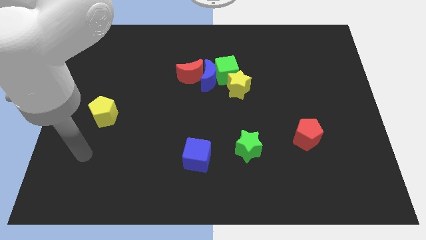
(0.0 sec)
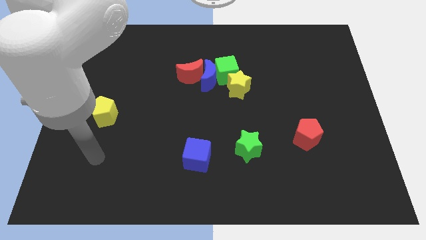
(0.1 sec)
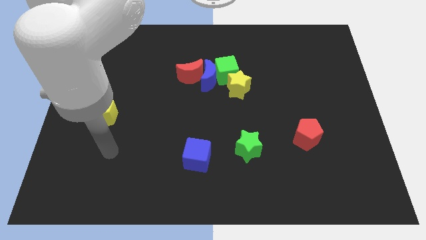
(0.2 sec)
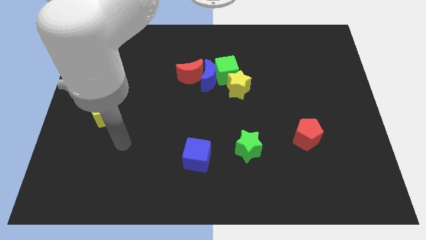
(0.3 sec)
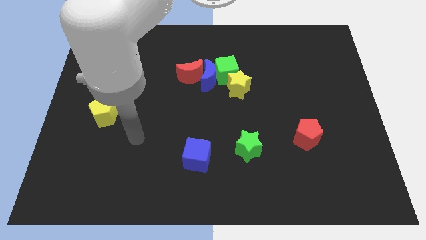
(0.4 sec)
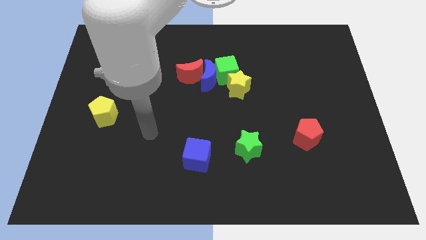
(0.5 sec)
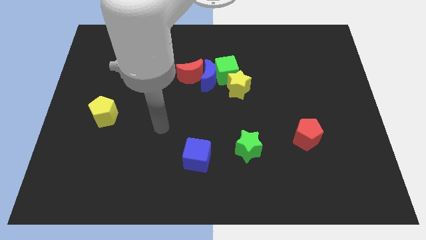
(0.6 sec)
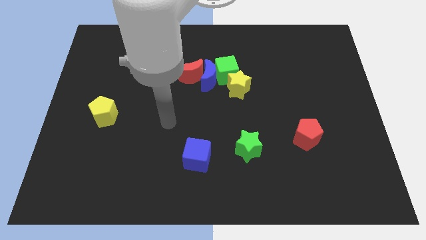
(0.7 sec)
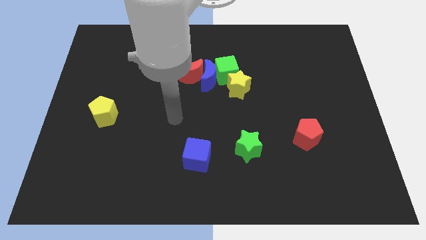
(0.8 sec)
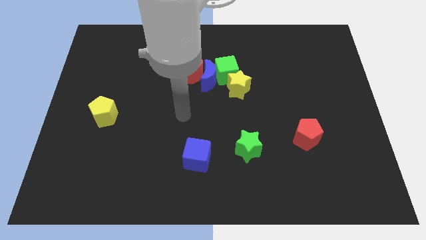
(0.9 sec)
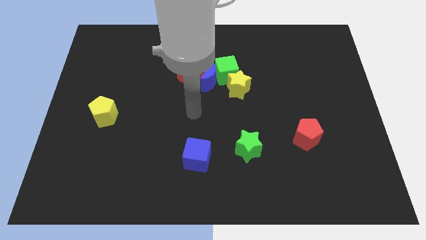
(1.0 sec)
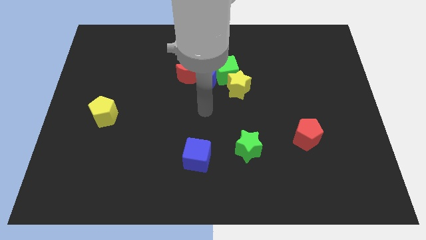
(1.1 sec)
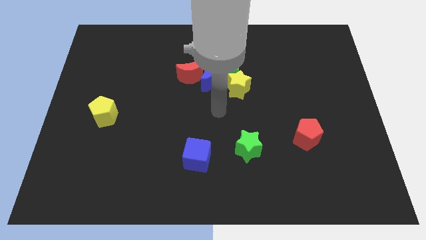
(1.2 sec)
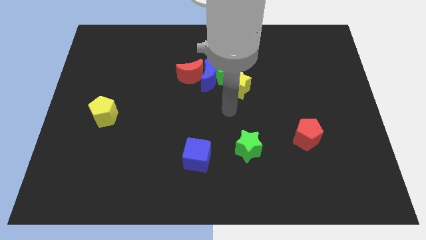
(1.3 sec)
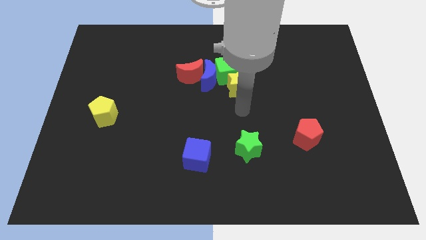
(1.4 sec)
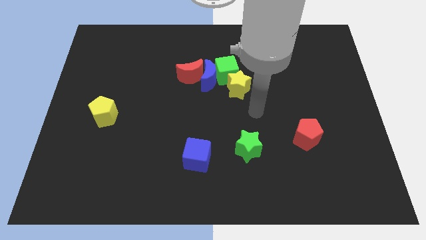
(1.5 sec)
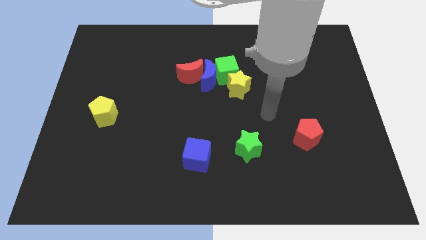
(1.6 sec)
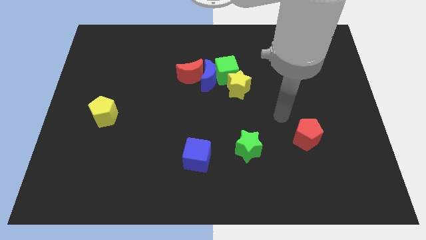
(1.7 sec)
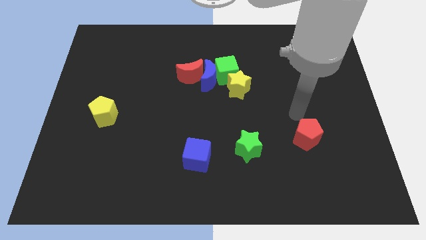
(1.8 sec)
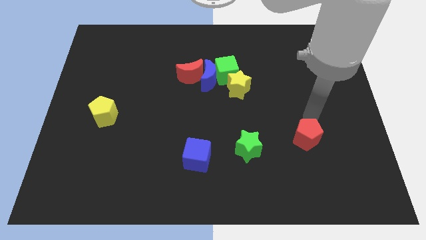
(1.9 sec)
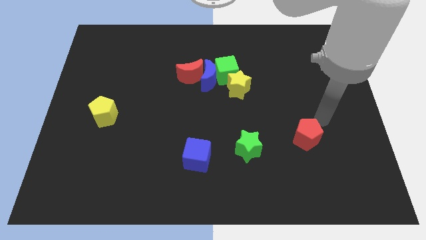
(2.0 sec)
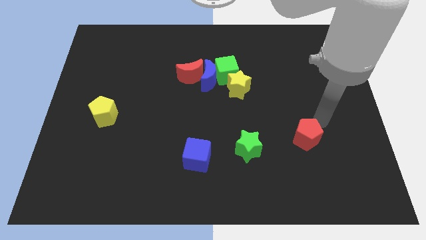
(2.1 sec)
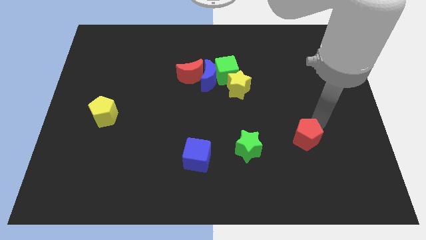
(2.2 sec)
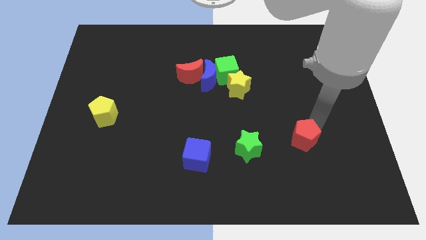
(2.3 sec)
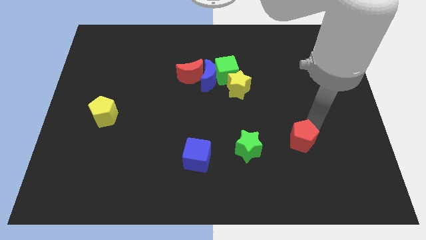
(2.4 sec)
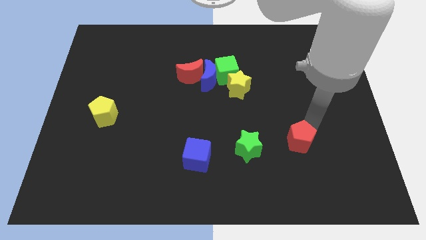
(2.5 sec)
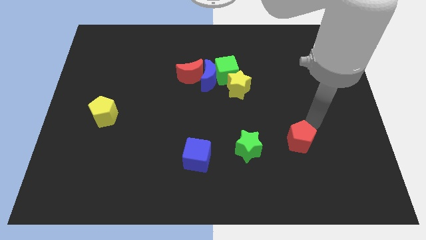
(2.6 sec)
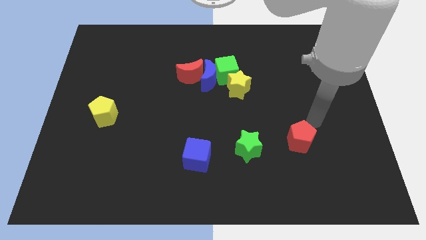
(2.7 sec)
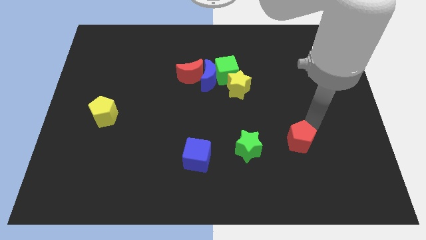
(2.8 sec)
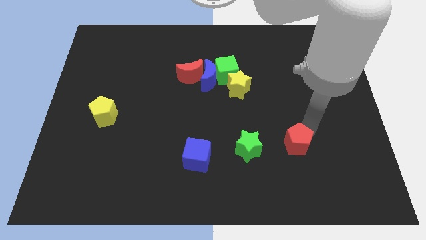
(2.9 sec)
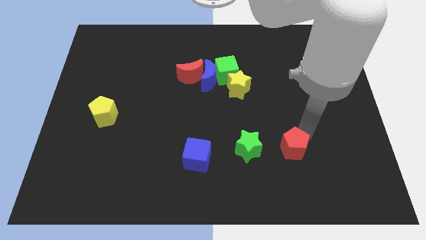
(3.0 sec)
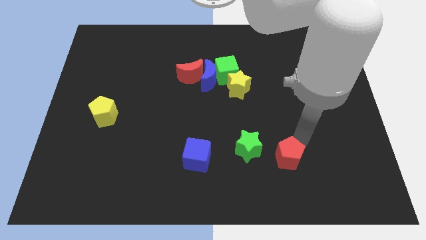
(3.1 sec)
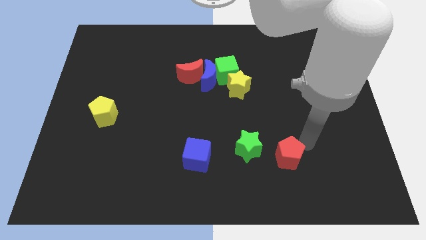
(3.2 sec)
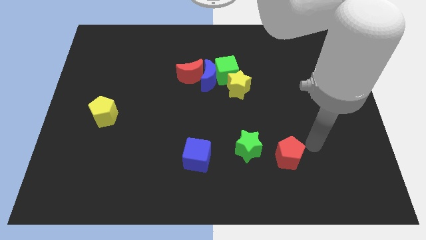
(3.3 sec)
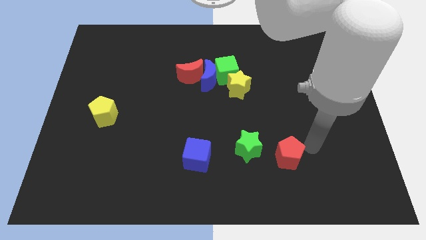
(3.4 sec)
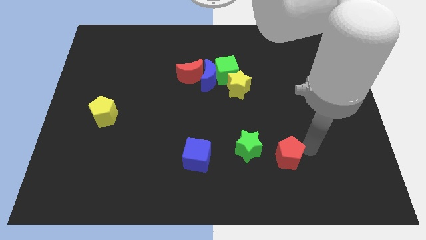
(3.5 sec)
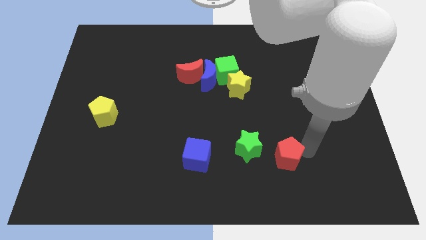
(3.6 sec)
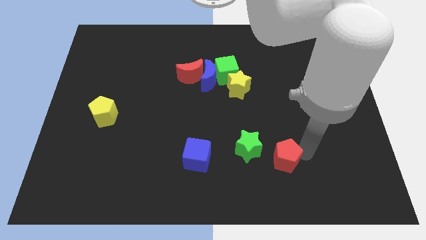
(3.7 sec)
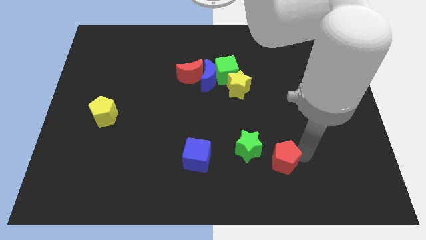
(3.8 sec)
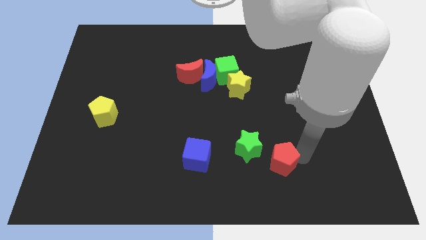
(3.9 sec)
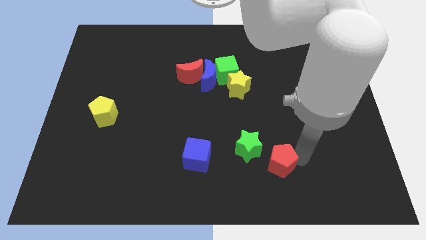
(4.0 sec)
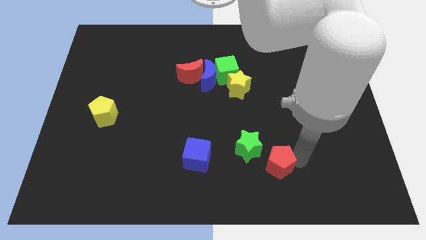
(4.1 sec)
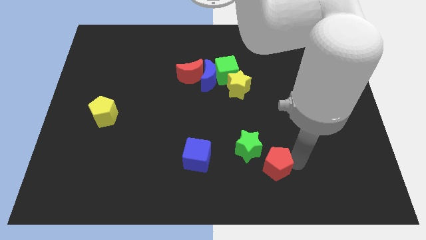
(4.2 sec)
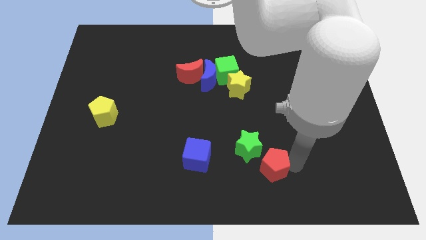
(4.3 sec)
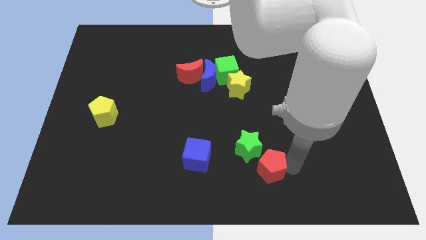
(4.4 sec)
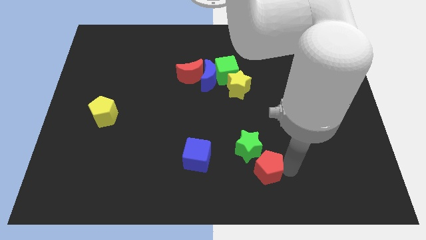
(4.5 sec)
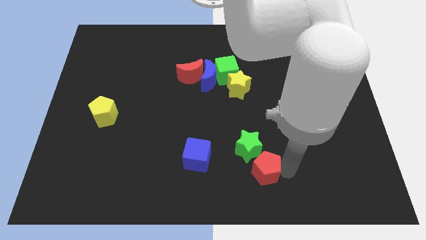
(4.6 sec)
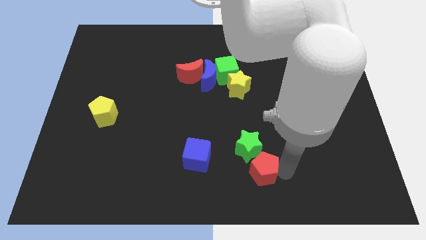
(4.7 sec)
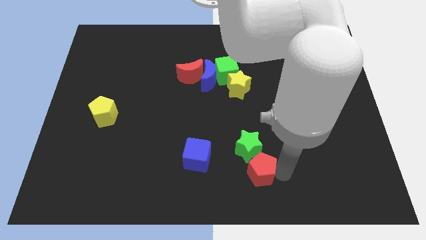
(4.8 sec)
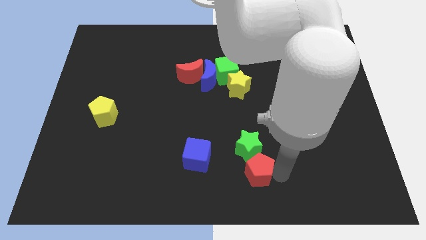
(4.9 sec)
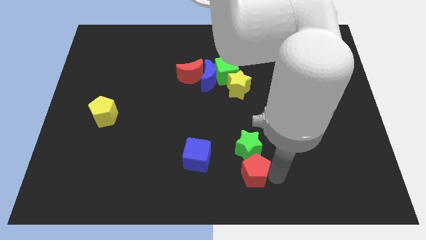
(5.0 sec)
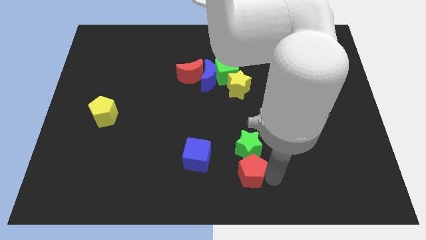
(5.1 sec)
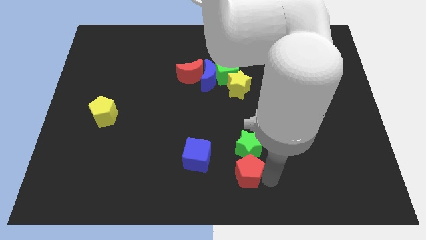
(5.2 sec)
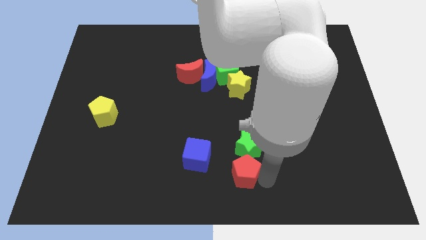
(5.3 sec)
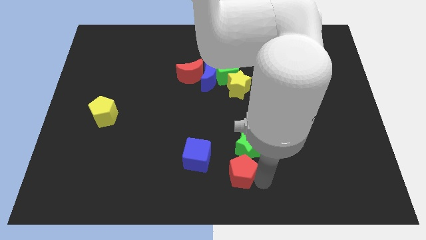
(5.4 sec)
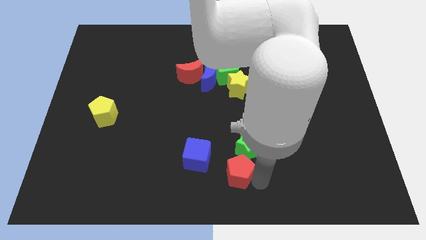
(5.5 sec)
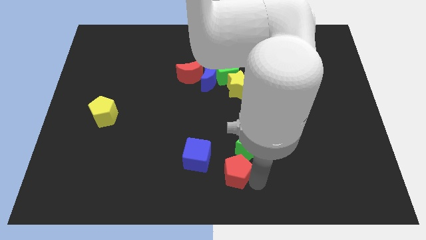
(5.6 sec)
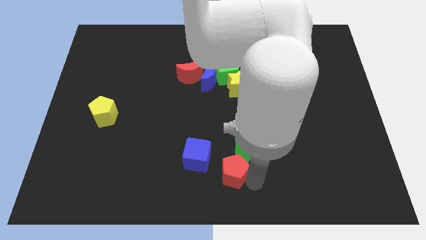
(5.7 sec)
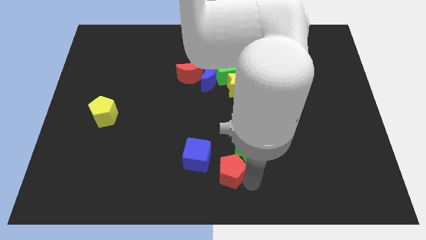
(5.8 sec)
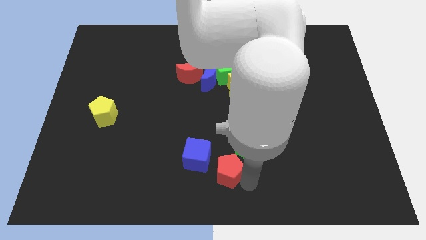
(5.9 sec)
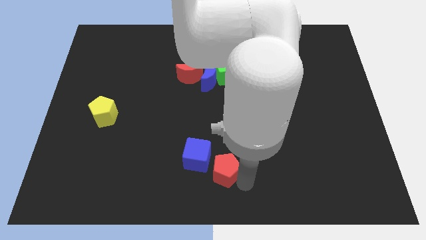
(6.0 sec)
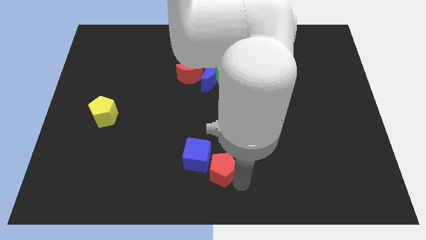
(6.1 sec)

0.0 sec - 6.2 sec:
push the red pentagon towards the blue cube

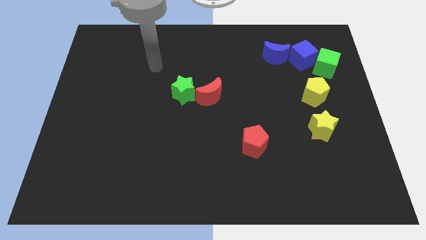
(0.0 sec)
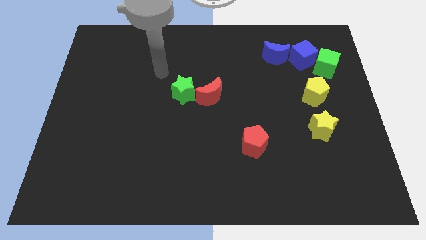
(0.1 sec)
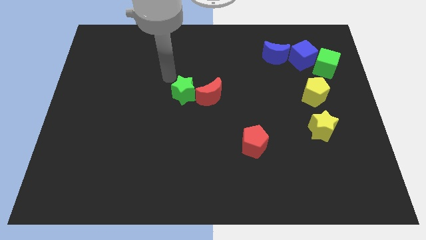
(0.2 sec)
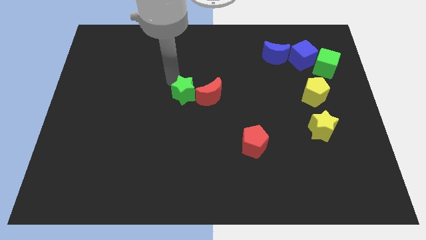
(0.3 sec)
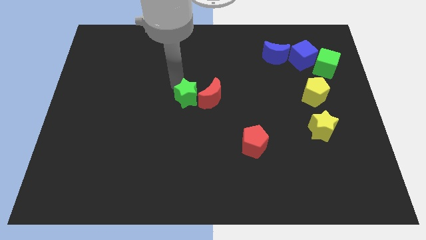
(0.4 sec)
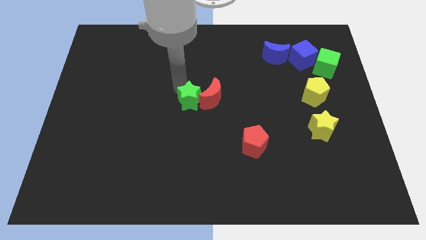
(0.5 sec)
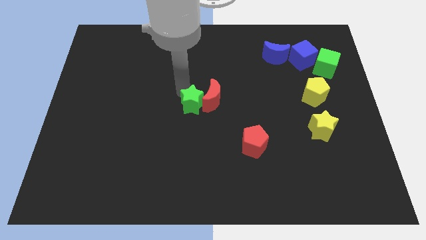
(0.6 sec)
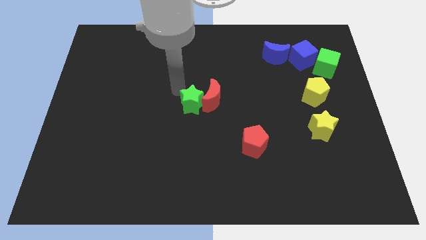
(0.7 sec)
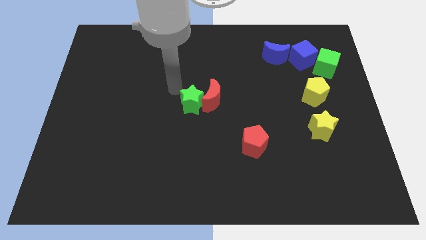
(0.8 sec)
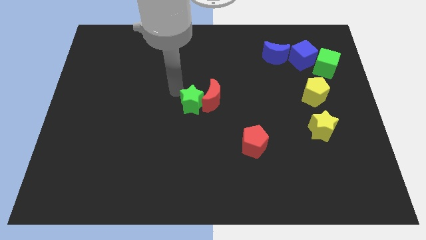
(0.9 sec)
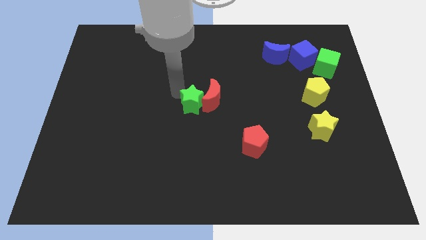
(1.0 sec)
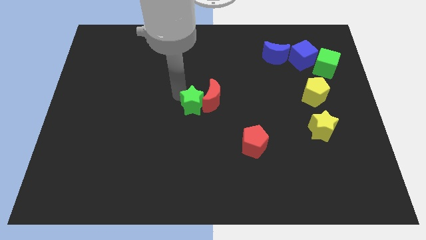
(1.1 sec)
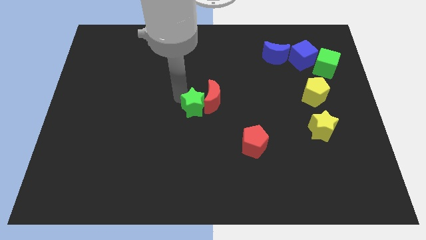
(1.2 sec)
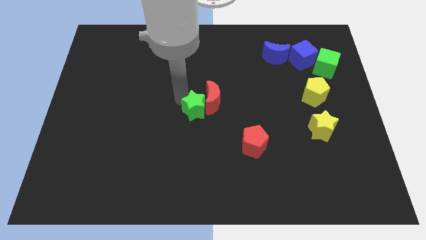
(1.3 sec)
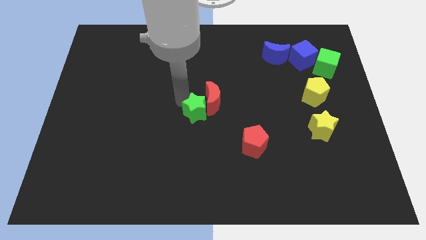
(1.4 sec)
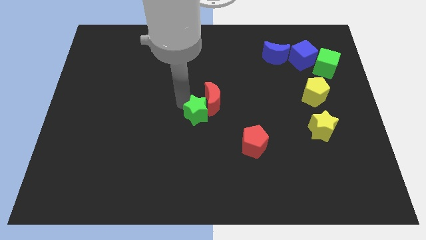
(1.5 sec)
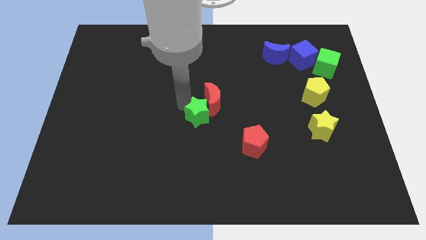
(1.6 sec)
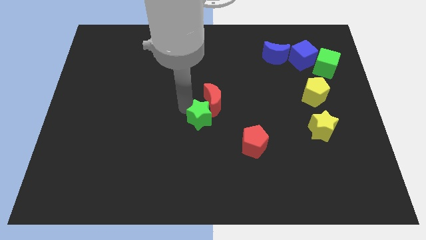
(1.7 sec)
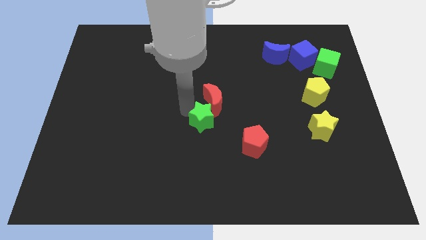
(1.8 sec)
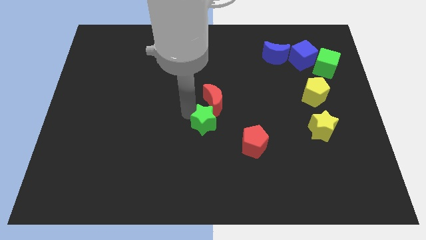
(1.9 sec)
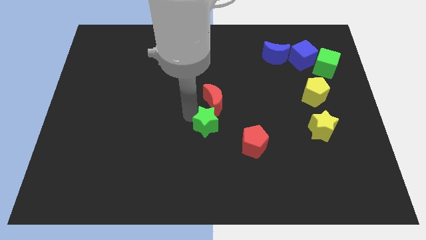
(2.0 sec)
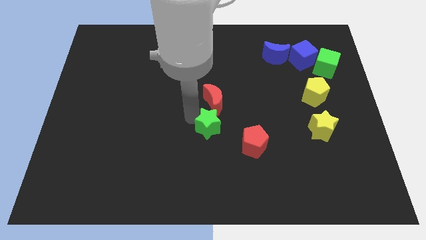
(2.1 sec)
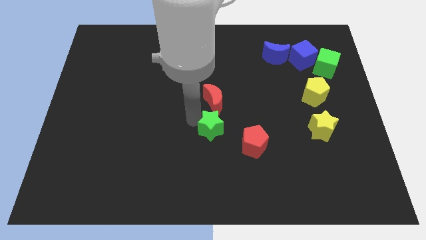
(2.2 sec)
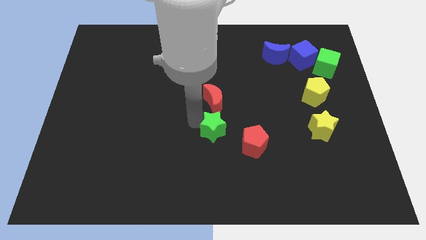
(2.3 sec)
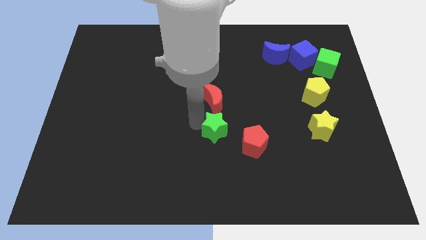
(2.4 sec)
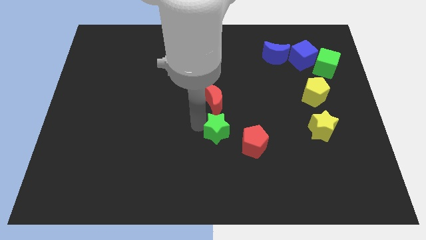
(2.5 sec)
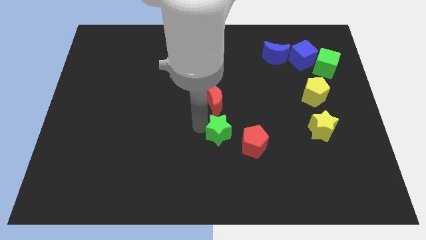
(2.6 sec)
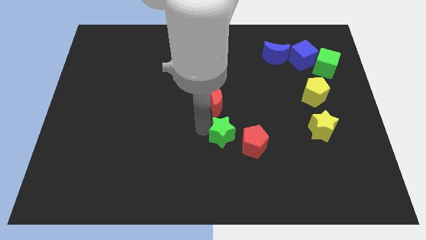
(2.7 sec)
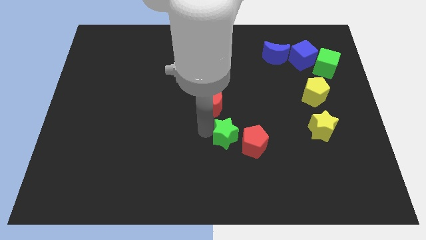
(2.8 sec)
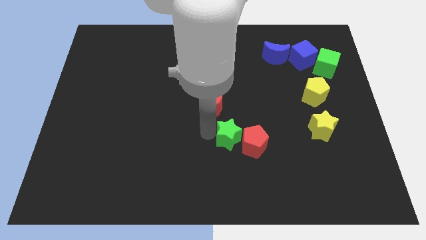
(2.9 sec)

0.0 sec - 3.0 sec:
put the green star next to the red pentagon
